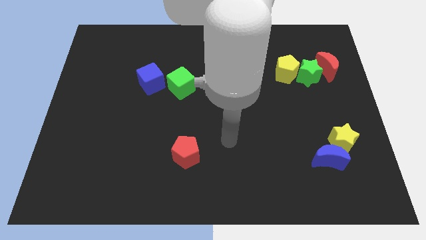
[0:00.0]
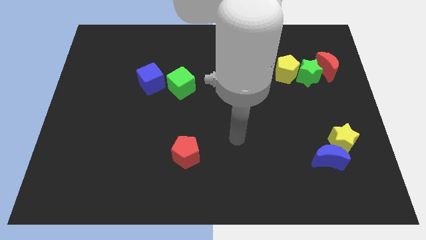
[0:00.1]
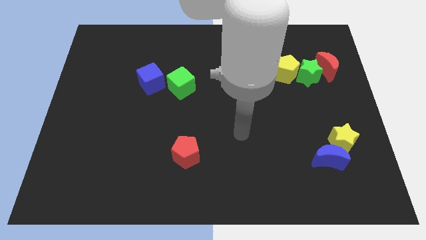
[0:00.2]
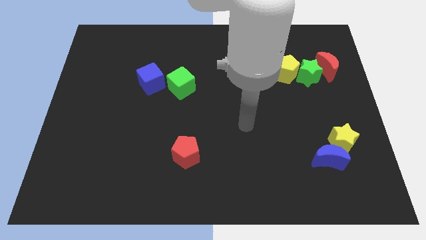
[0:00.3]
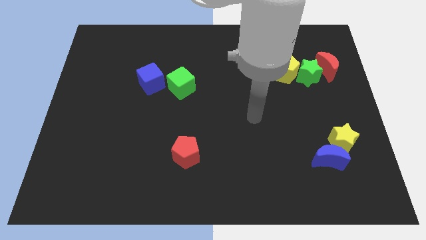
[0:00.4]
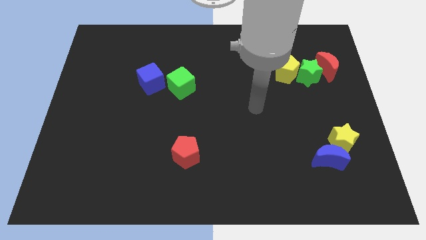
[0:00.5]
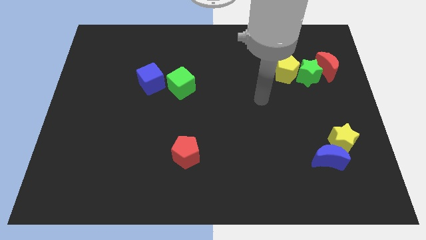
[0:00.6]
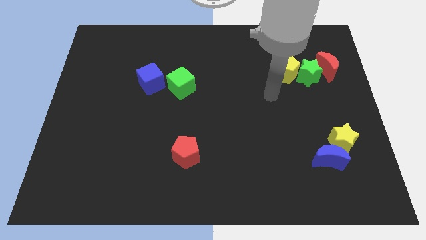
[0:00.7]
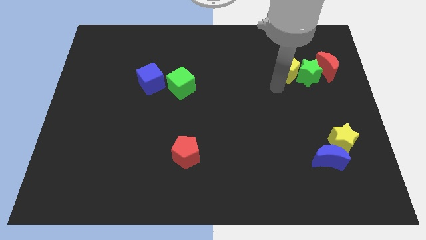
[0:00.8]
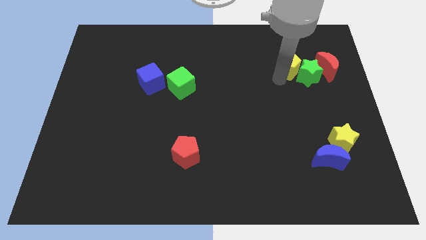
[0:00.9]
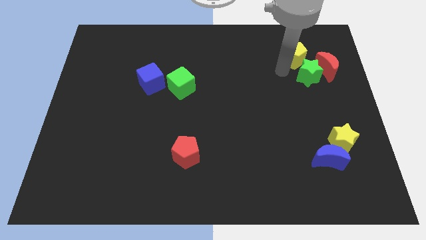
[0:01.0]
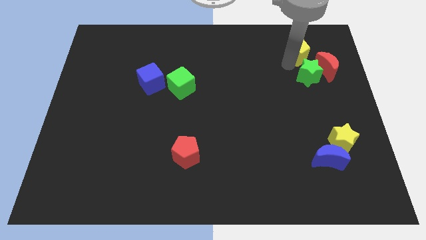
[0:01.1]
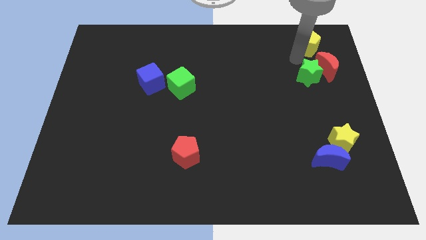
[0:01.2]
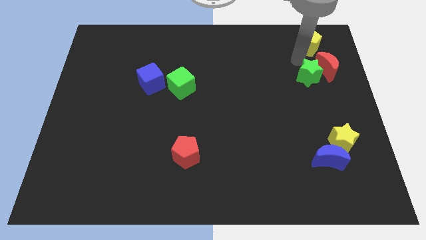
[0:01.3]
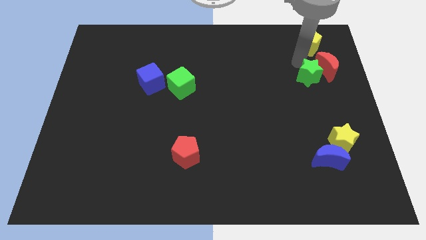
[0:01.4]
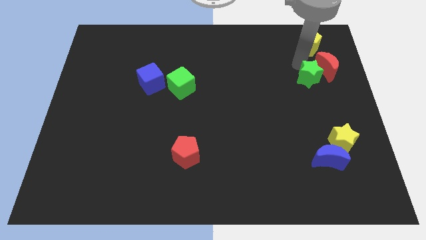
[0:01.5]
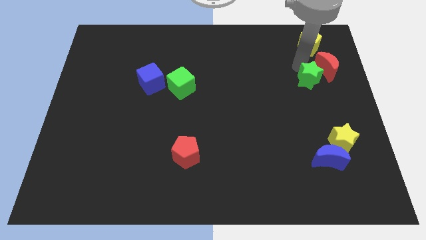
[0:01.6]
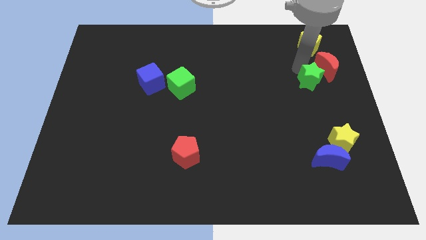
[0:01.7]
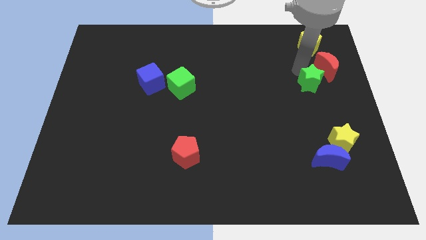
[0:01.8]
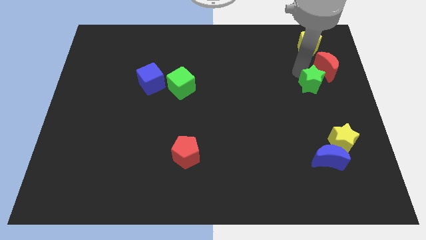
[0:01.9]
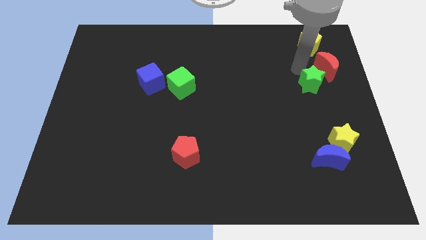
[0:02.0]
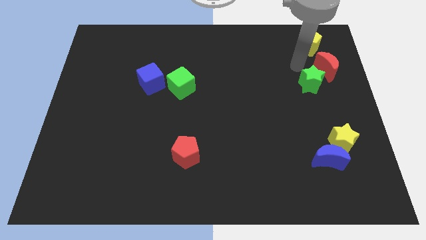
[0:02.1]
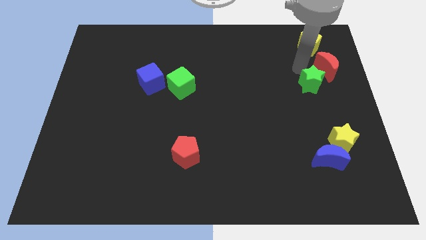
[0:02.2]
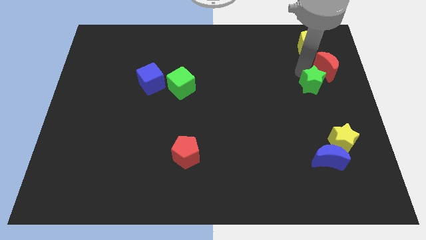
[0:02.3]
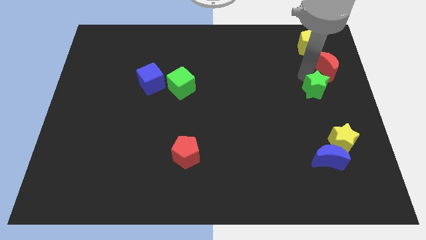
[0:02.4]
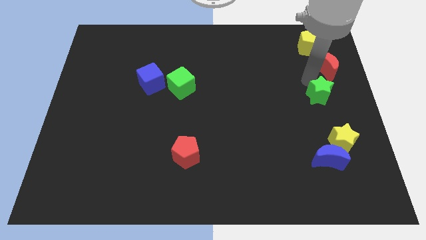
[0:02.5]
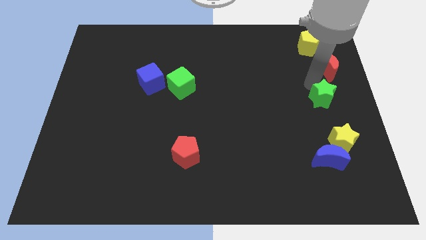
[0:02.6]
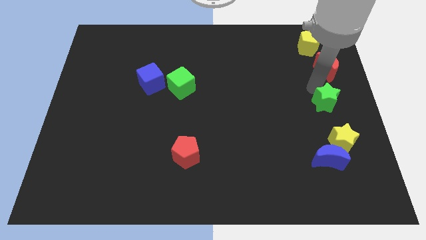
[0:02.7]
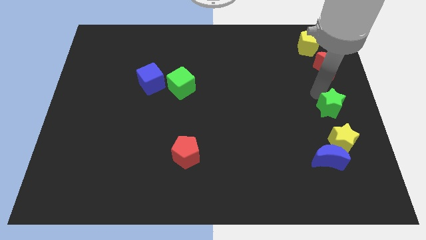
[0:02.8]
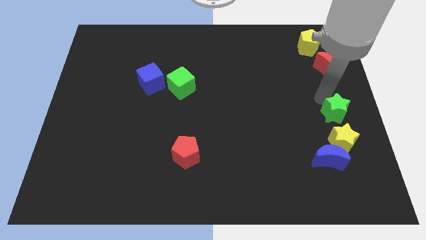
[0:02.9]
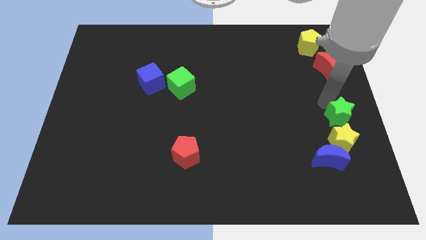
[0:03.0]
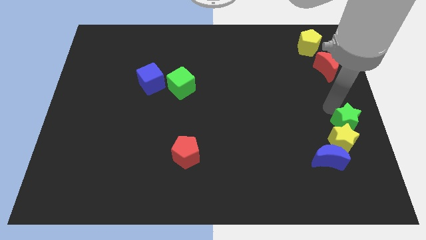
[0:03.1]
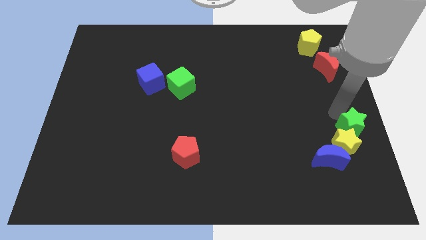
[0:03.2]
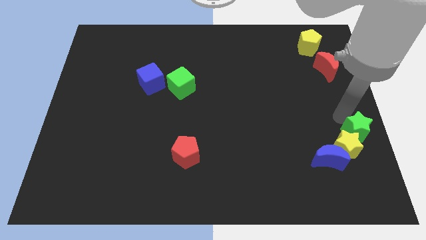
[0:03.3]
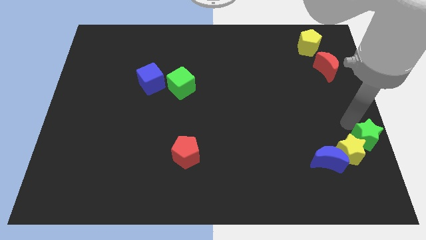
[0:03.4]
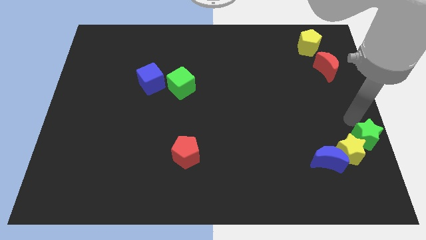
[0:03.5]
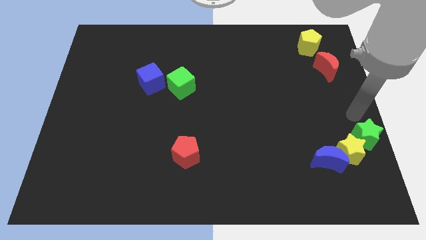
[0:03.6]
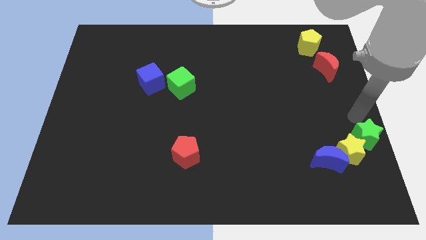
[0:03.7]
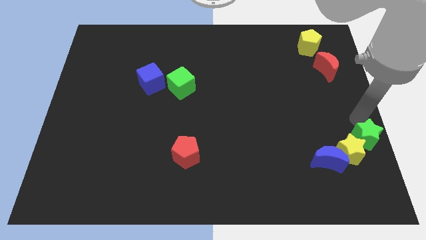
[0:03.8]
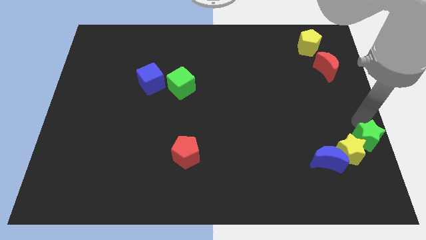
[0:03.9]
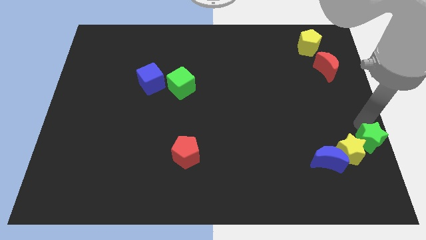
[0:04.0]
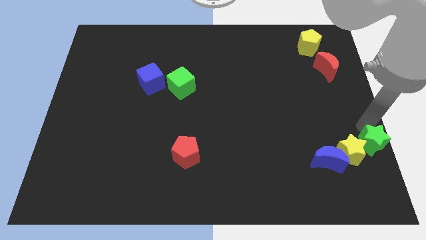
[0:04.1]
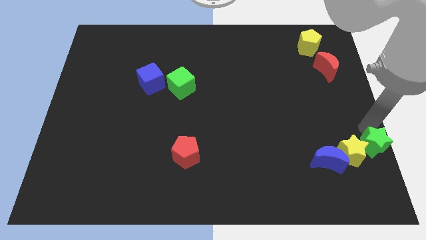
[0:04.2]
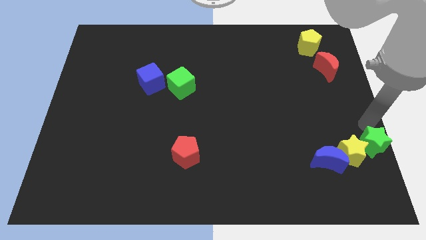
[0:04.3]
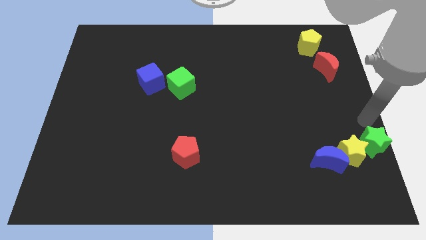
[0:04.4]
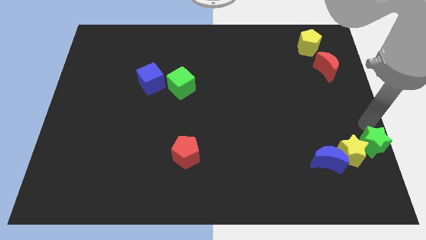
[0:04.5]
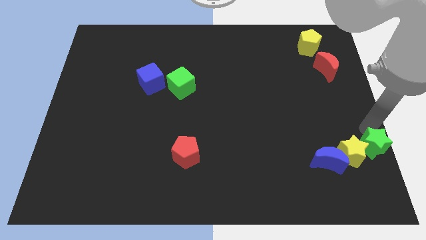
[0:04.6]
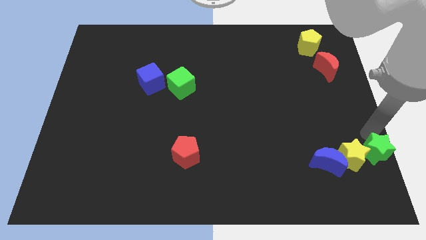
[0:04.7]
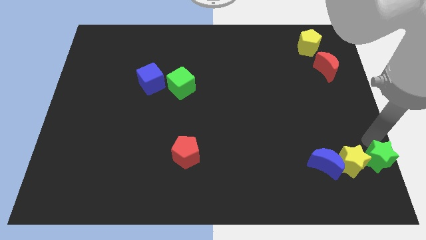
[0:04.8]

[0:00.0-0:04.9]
move the green star to the bottom right

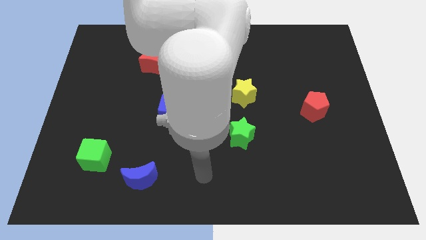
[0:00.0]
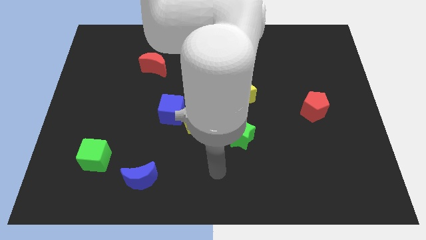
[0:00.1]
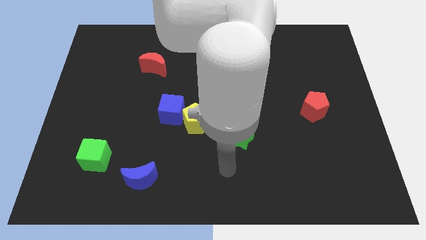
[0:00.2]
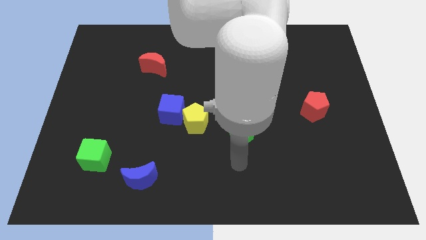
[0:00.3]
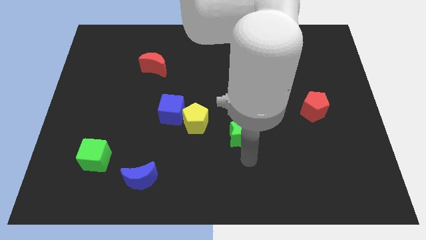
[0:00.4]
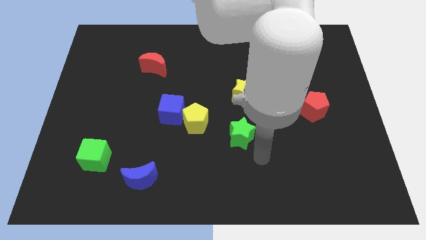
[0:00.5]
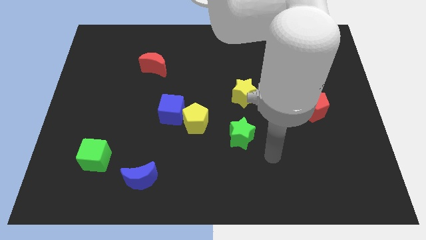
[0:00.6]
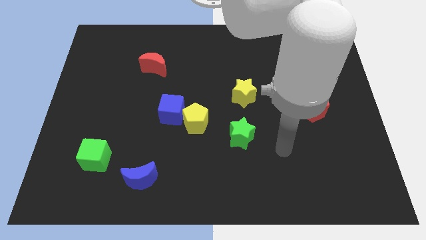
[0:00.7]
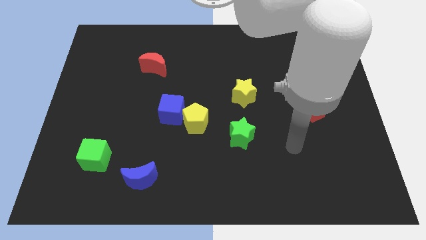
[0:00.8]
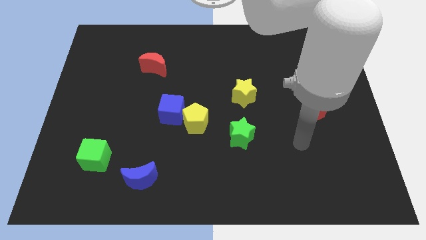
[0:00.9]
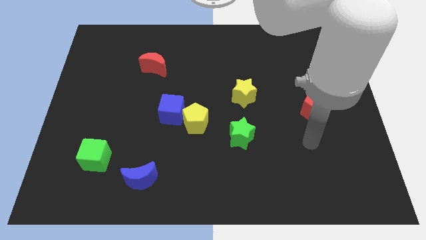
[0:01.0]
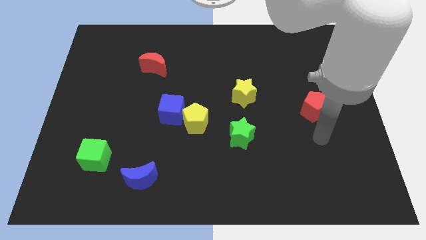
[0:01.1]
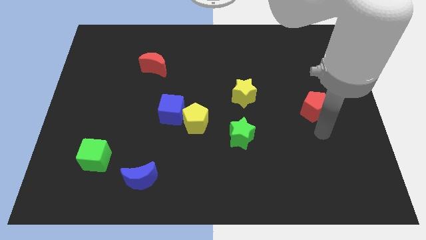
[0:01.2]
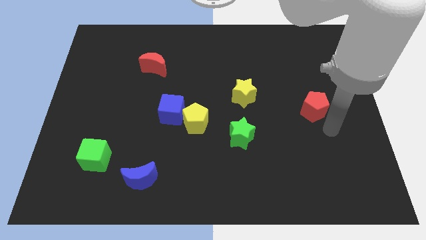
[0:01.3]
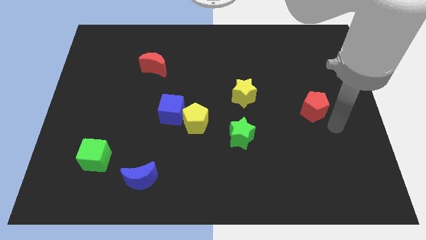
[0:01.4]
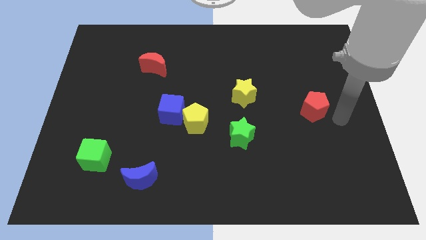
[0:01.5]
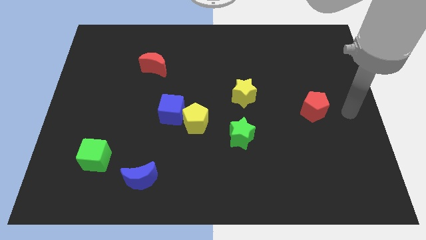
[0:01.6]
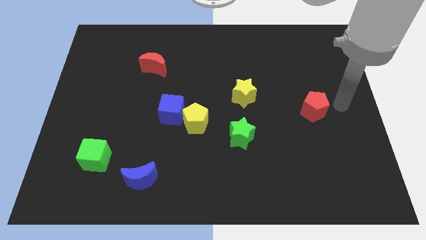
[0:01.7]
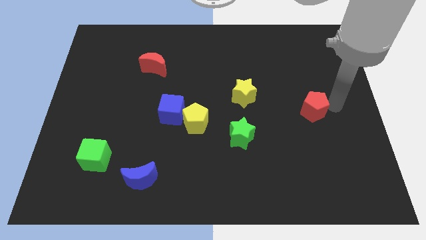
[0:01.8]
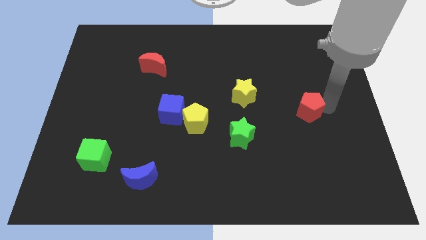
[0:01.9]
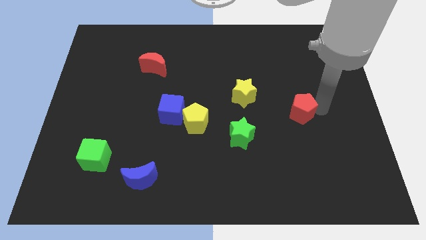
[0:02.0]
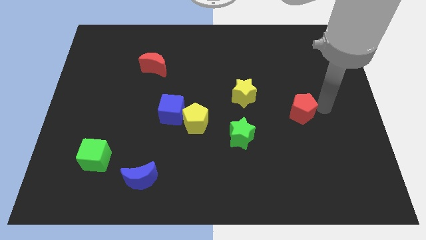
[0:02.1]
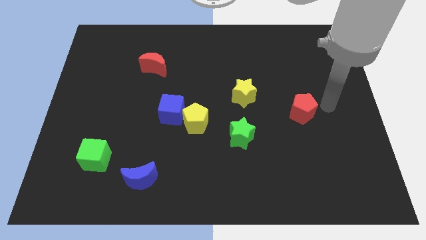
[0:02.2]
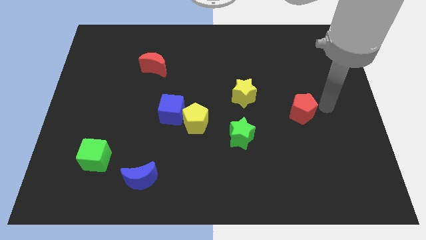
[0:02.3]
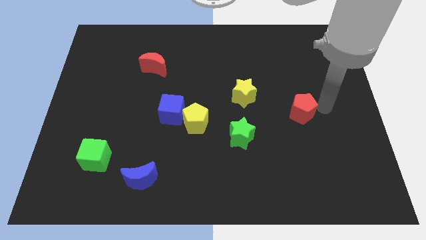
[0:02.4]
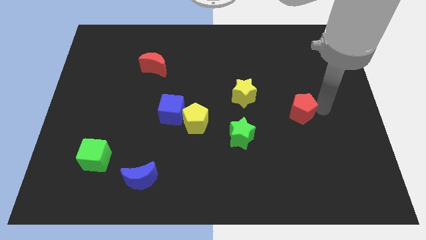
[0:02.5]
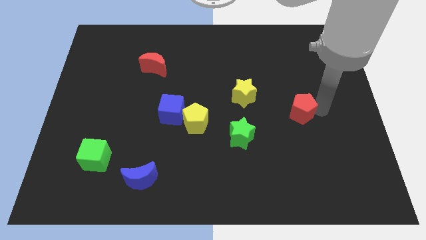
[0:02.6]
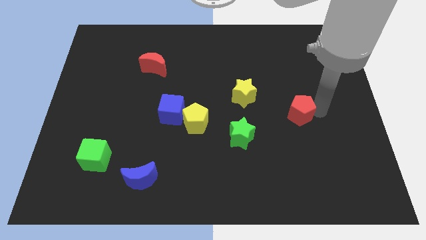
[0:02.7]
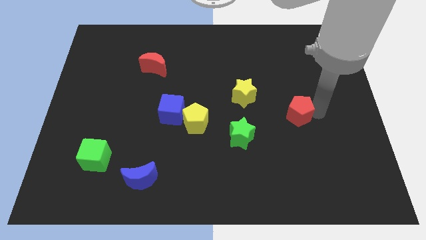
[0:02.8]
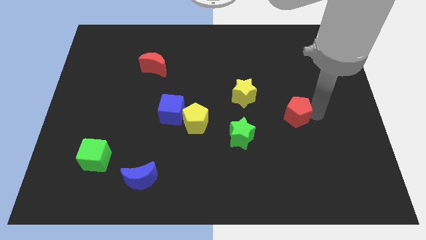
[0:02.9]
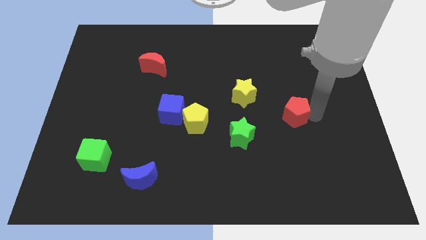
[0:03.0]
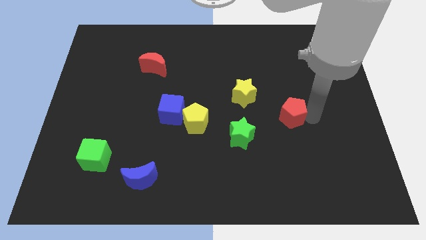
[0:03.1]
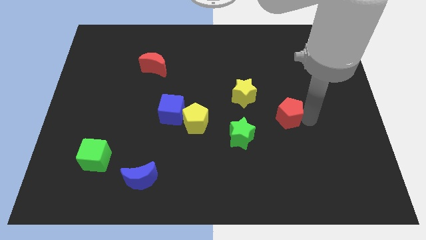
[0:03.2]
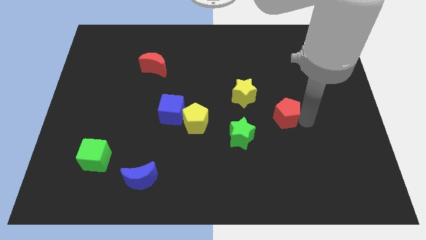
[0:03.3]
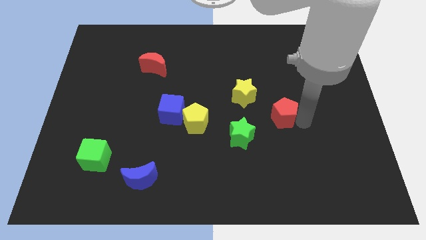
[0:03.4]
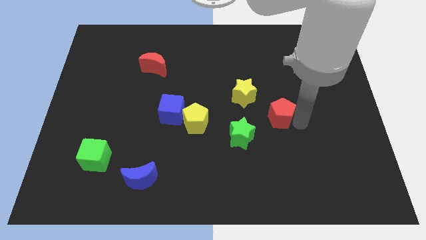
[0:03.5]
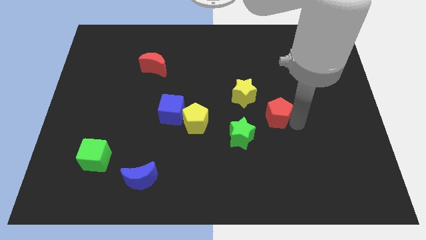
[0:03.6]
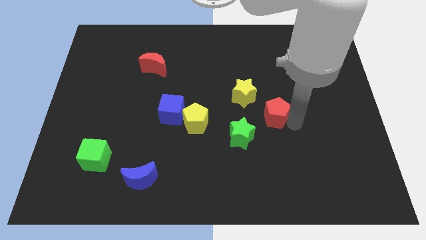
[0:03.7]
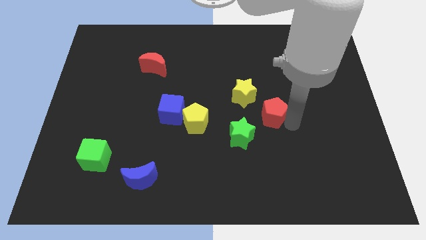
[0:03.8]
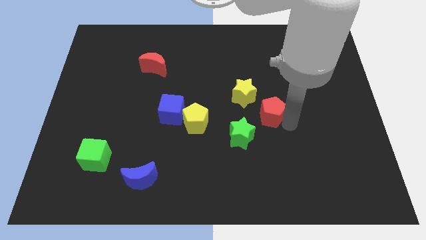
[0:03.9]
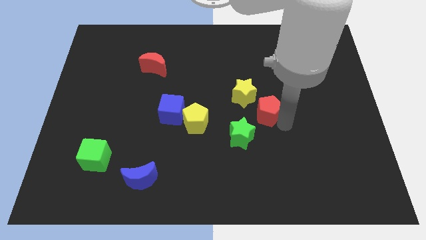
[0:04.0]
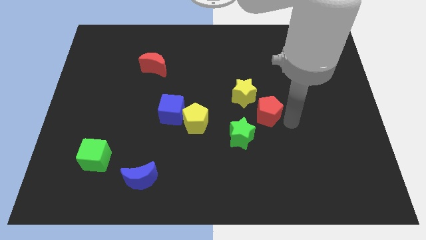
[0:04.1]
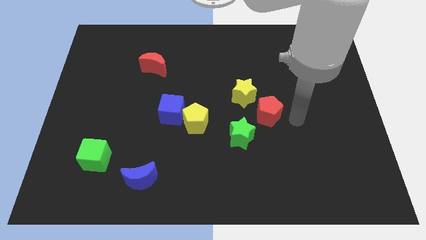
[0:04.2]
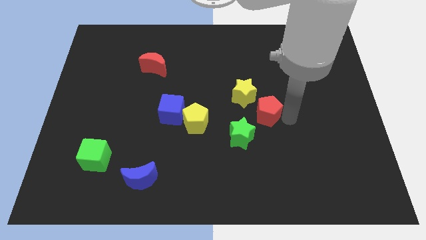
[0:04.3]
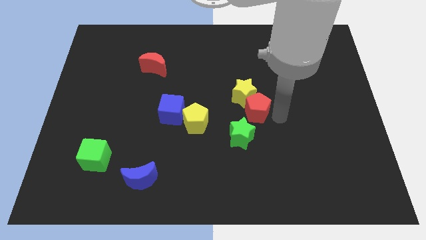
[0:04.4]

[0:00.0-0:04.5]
push the red pentagon to the center of the board
